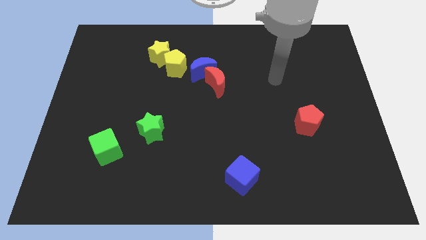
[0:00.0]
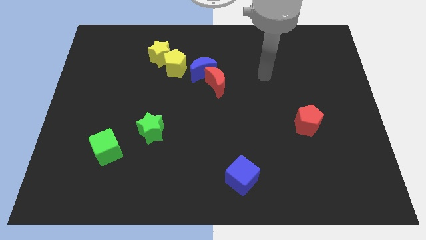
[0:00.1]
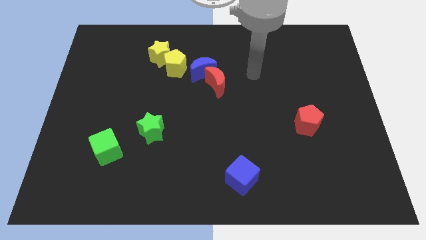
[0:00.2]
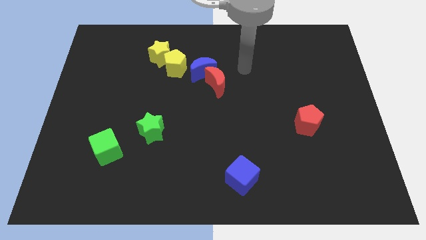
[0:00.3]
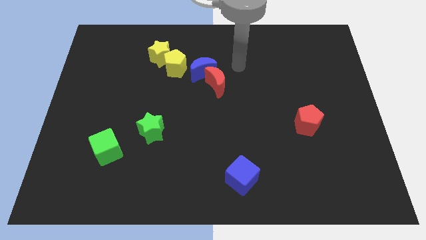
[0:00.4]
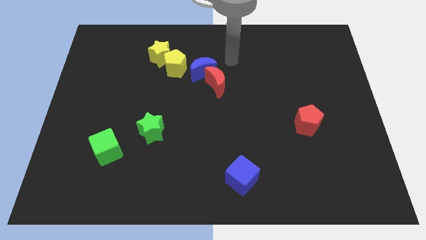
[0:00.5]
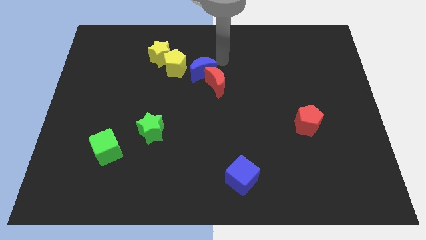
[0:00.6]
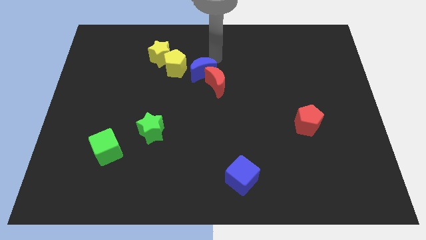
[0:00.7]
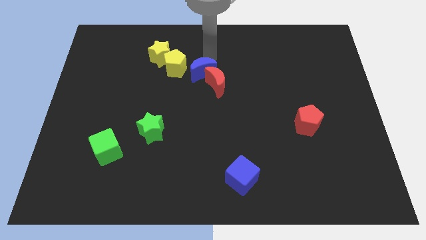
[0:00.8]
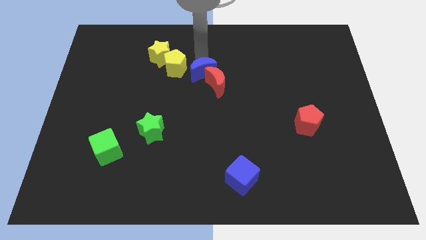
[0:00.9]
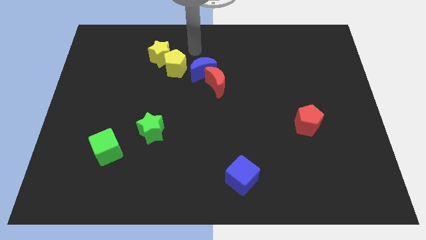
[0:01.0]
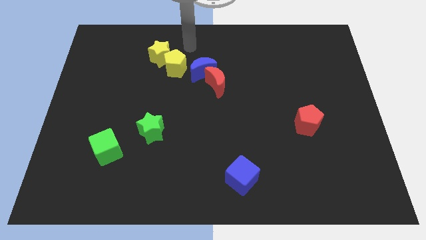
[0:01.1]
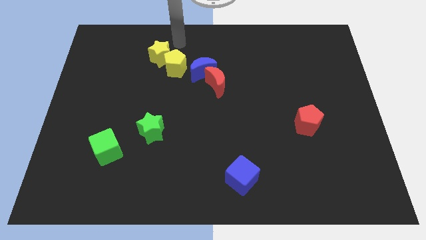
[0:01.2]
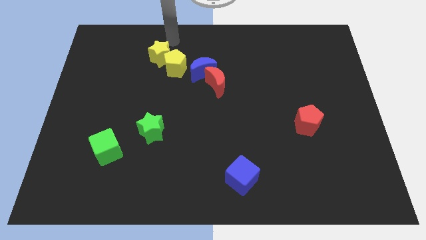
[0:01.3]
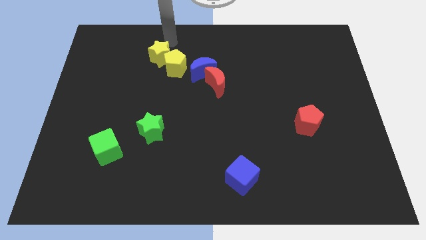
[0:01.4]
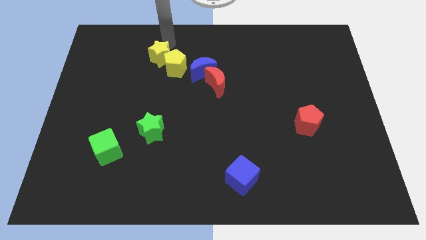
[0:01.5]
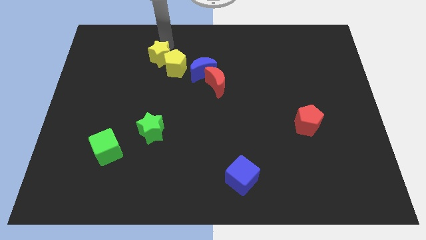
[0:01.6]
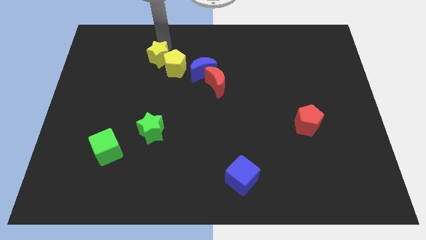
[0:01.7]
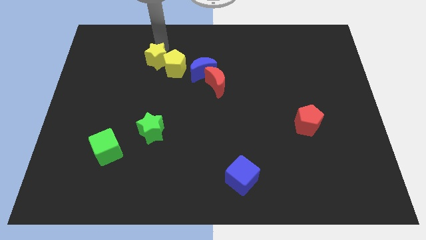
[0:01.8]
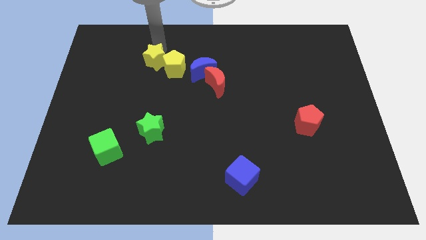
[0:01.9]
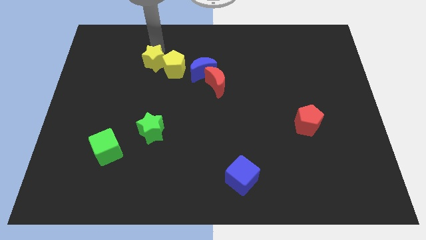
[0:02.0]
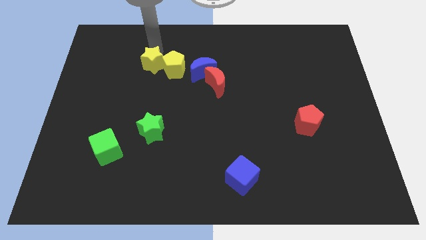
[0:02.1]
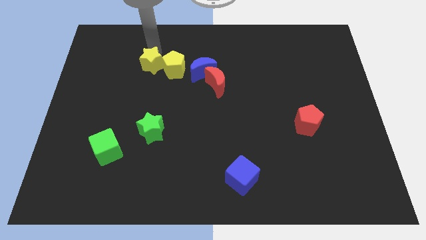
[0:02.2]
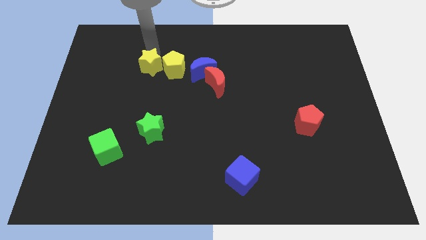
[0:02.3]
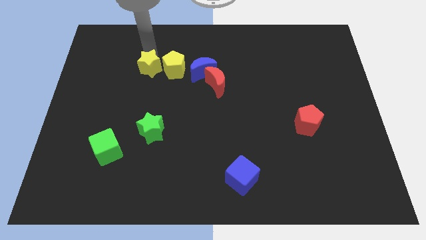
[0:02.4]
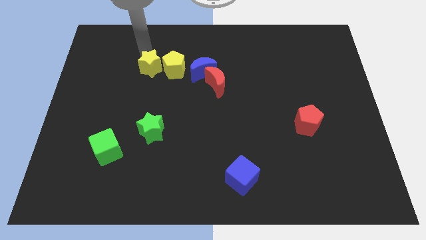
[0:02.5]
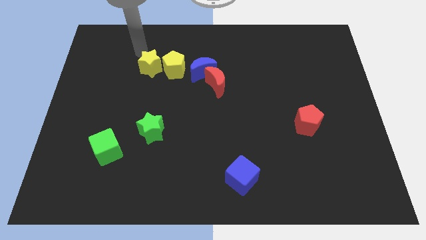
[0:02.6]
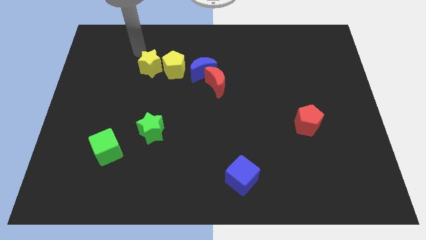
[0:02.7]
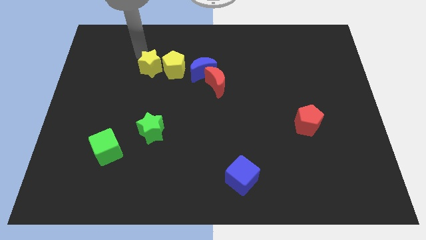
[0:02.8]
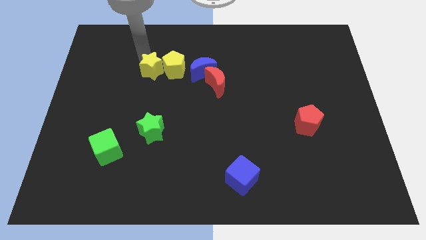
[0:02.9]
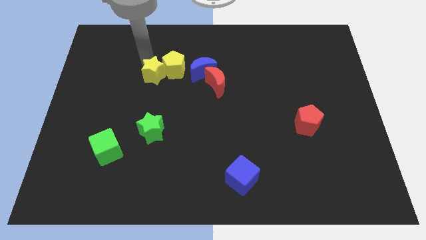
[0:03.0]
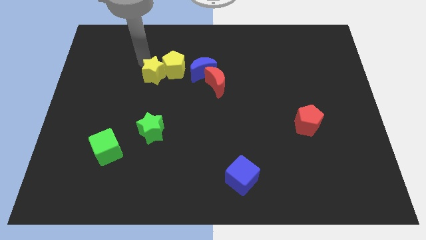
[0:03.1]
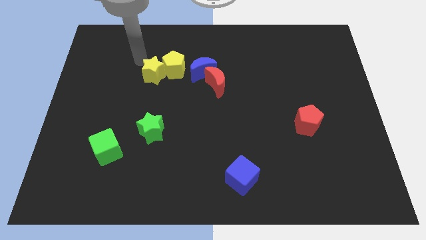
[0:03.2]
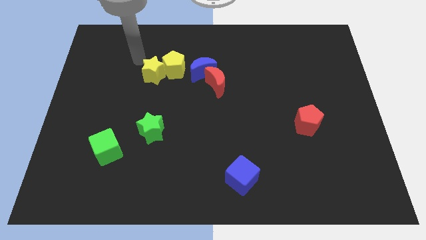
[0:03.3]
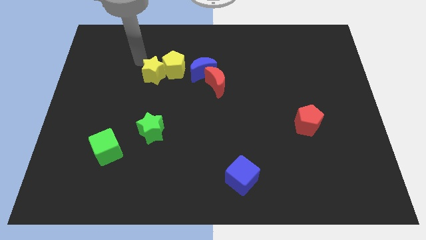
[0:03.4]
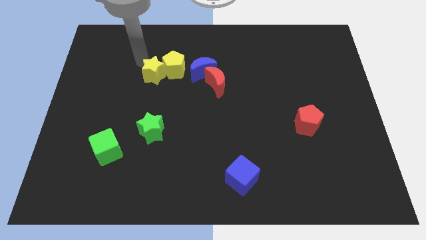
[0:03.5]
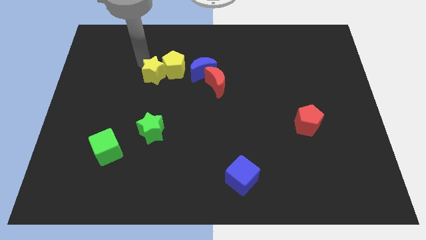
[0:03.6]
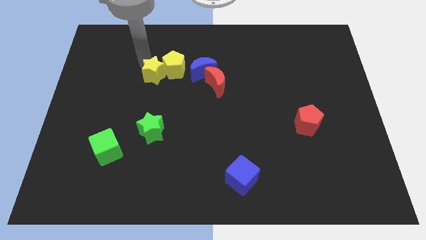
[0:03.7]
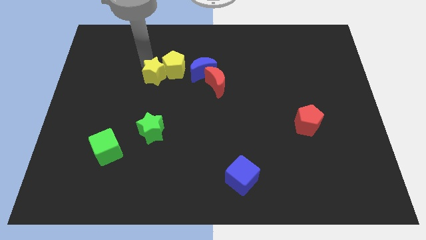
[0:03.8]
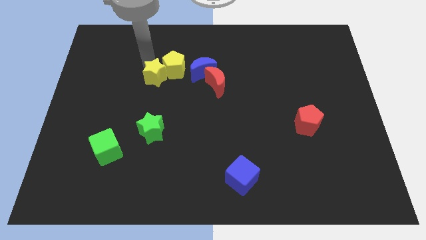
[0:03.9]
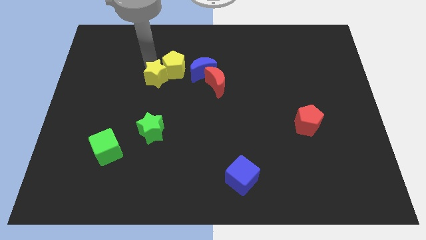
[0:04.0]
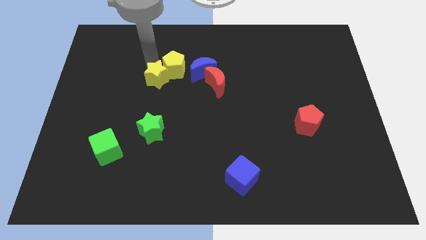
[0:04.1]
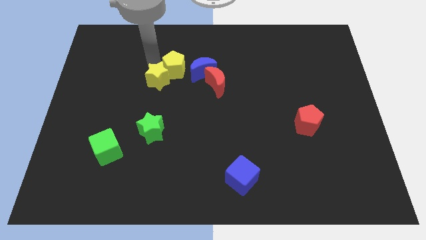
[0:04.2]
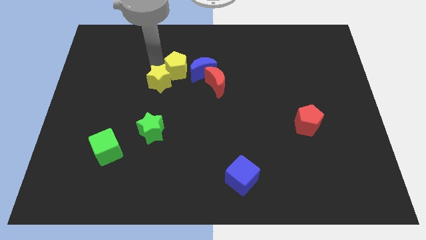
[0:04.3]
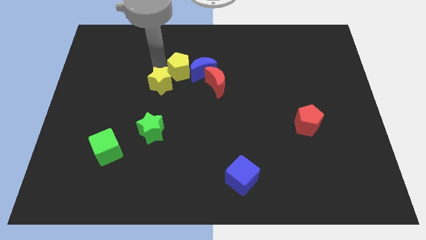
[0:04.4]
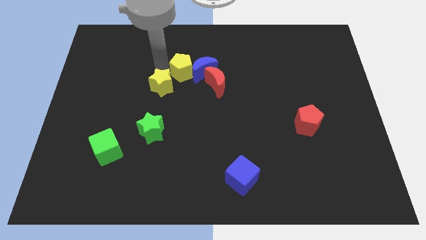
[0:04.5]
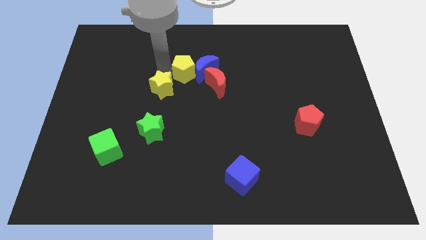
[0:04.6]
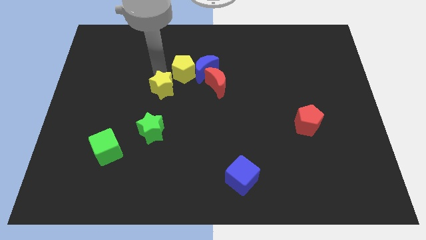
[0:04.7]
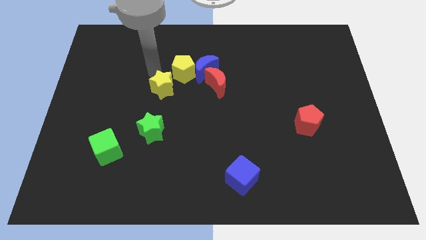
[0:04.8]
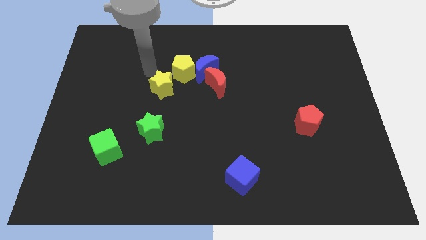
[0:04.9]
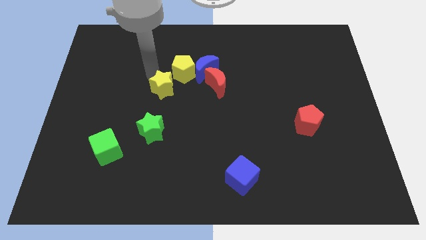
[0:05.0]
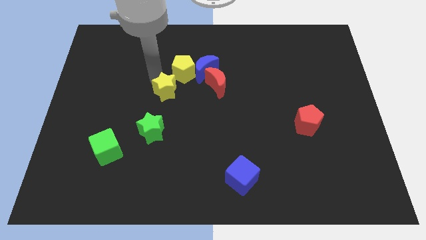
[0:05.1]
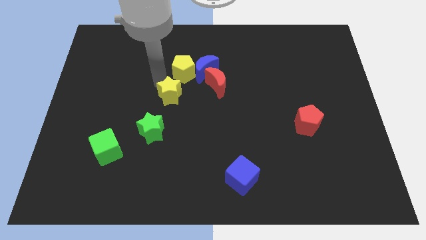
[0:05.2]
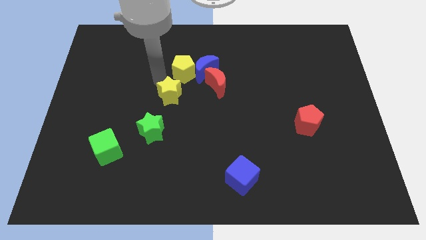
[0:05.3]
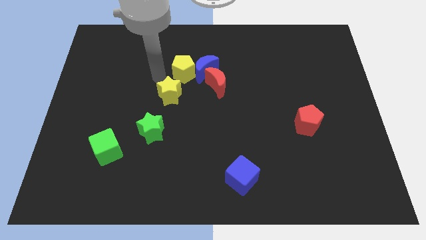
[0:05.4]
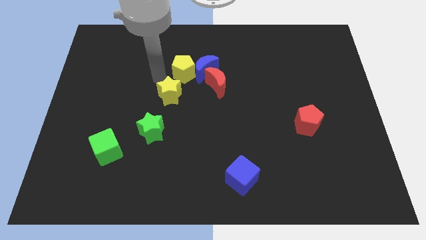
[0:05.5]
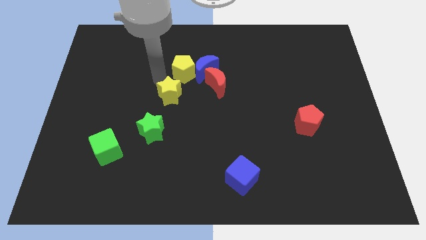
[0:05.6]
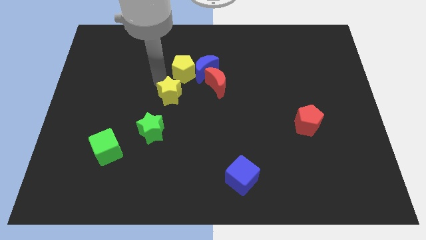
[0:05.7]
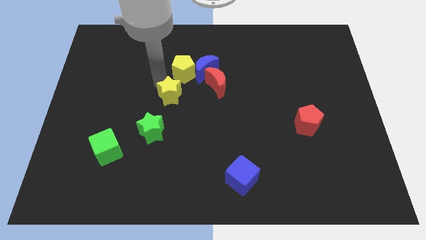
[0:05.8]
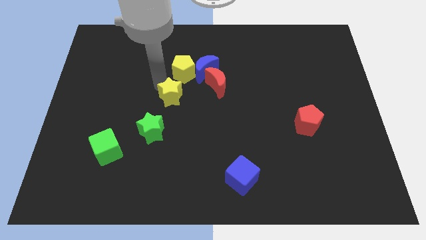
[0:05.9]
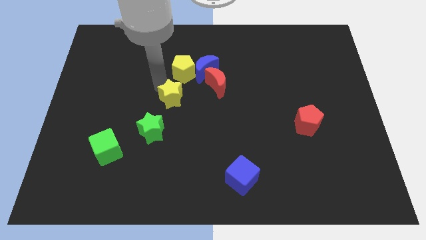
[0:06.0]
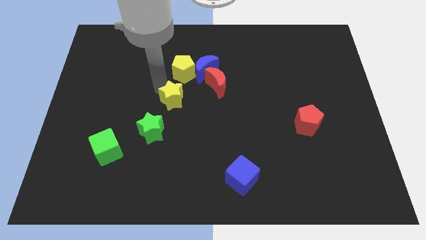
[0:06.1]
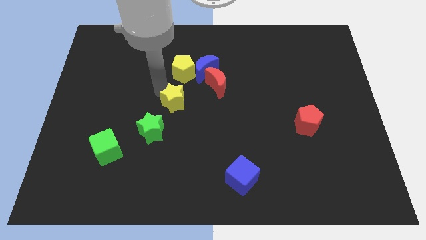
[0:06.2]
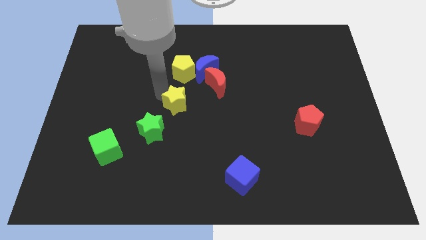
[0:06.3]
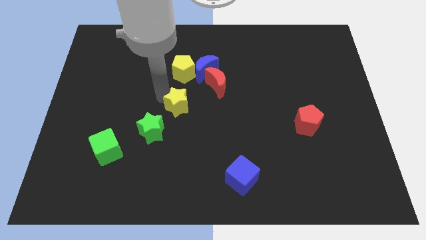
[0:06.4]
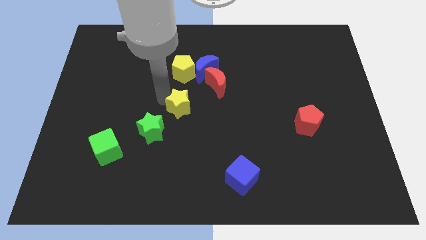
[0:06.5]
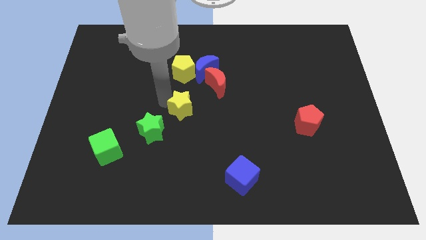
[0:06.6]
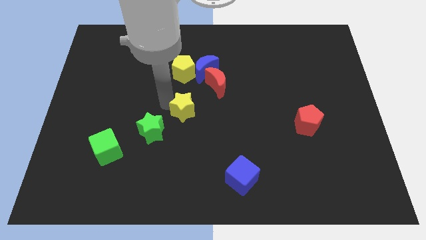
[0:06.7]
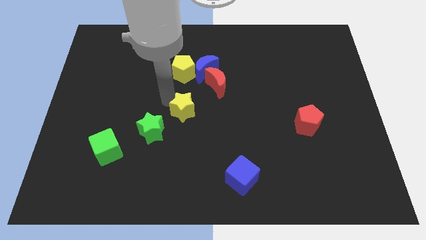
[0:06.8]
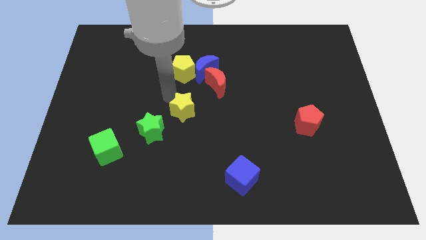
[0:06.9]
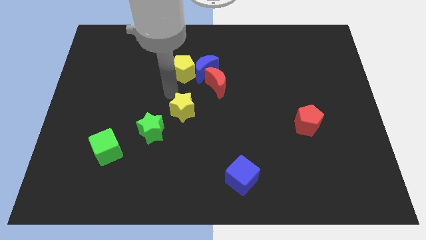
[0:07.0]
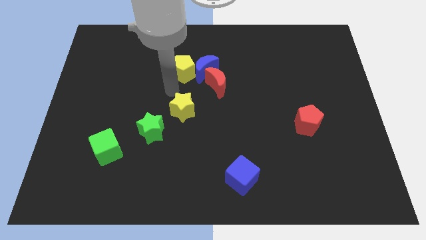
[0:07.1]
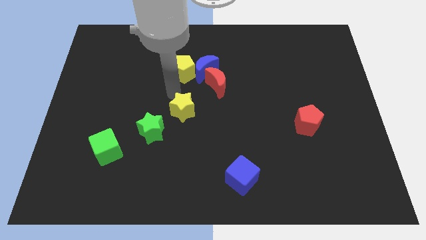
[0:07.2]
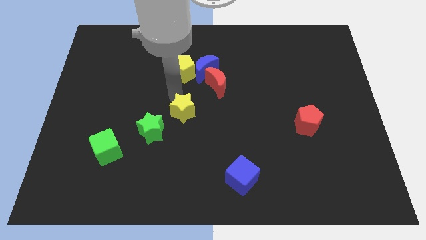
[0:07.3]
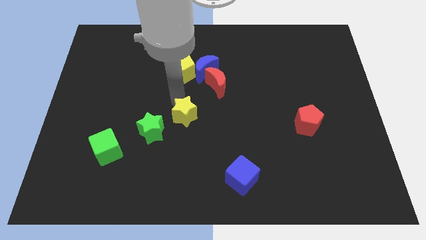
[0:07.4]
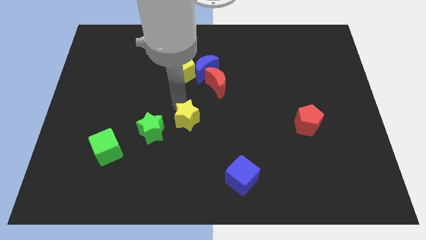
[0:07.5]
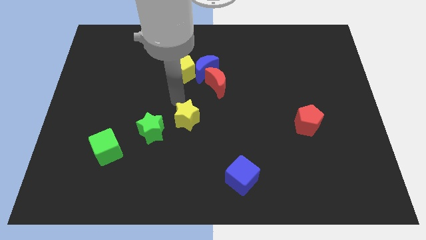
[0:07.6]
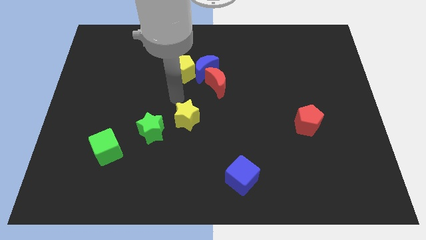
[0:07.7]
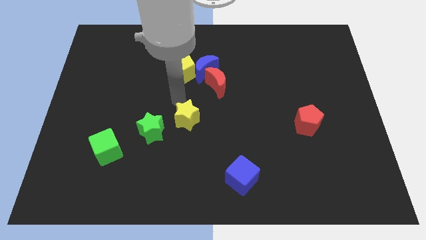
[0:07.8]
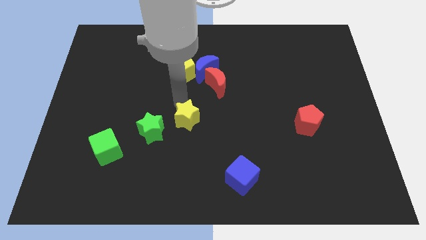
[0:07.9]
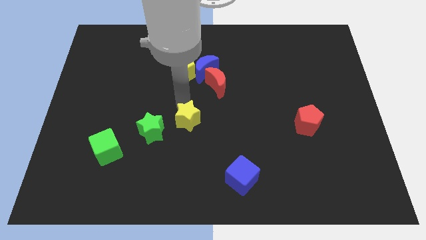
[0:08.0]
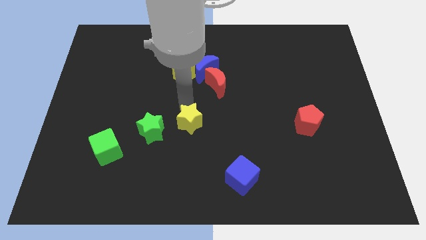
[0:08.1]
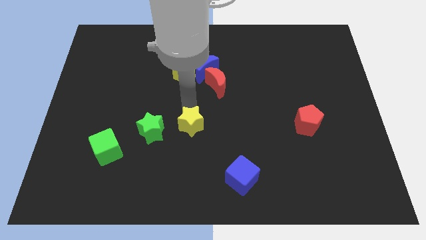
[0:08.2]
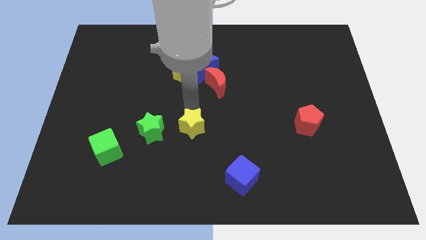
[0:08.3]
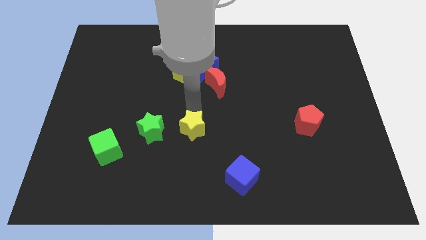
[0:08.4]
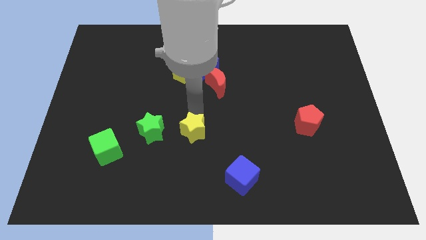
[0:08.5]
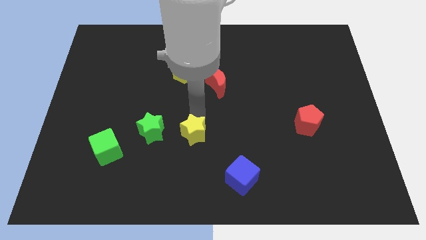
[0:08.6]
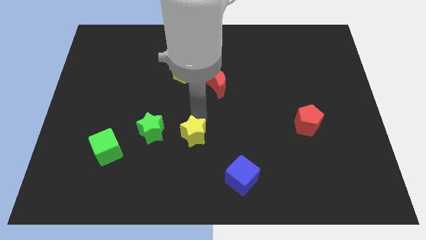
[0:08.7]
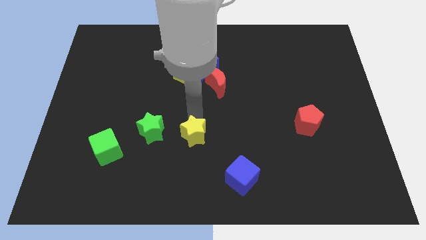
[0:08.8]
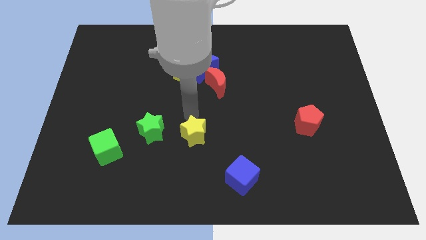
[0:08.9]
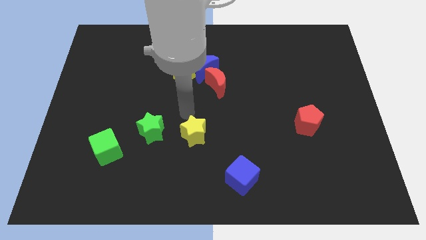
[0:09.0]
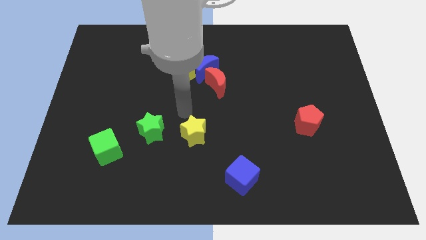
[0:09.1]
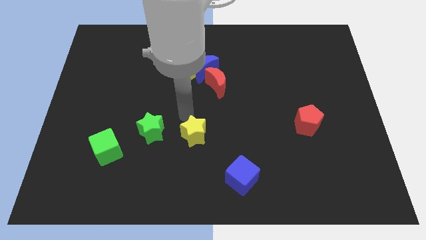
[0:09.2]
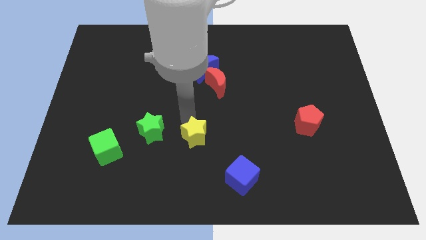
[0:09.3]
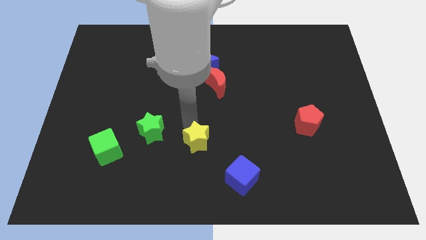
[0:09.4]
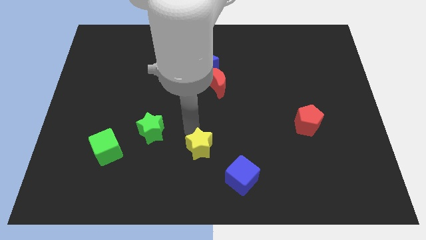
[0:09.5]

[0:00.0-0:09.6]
slide the yellow star diagonally up and to the left of the blue cube
